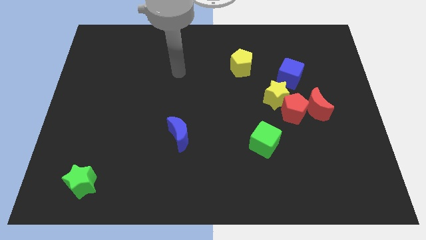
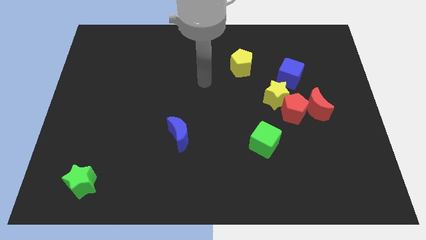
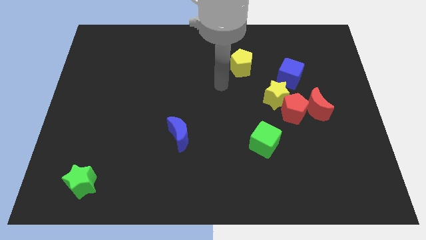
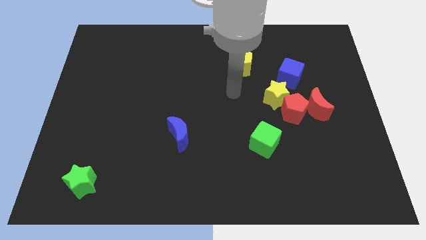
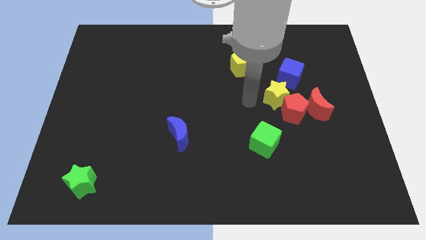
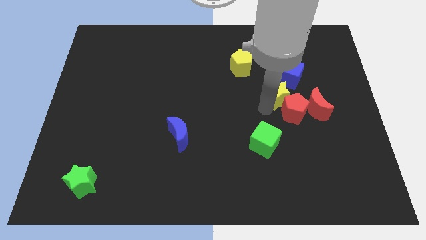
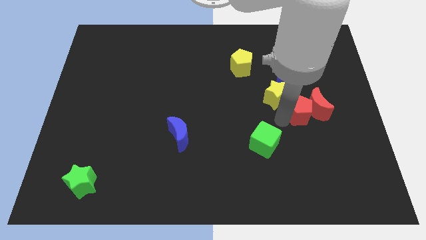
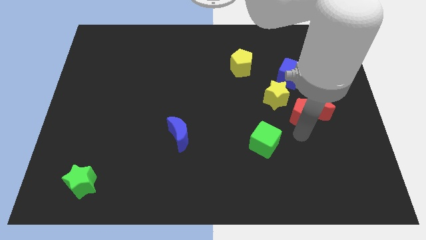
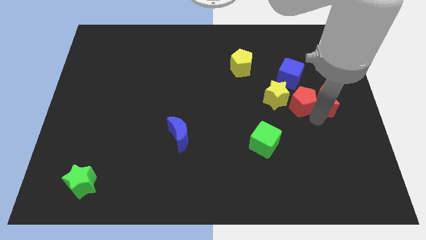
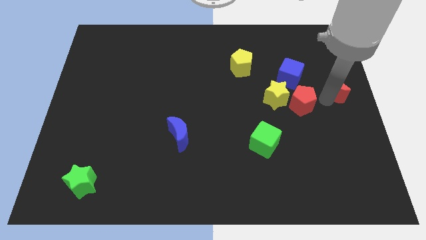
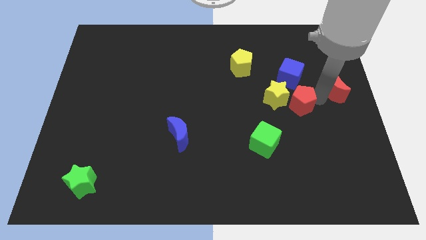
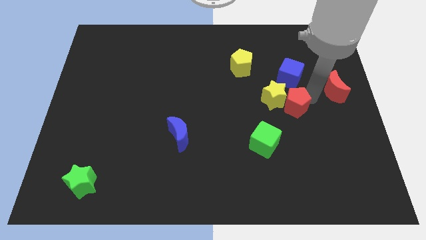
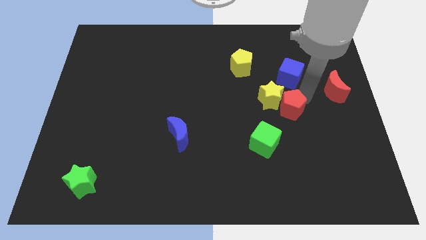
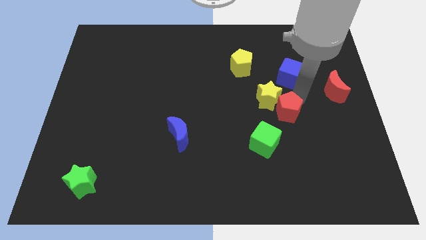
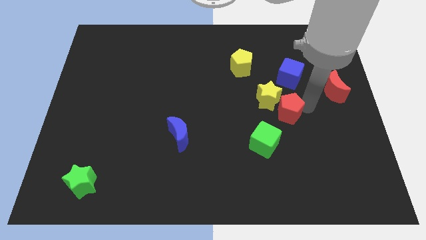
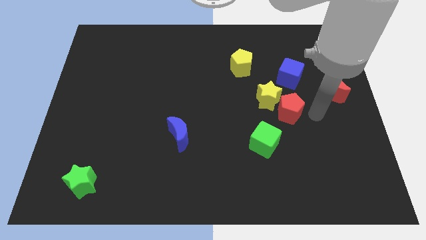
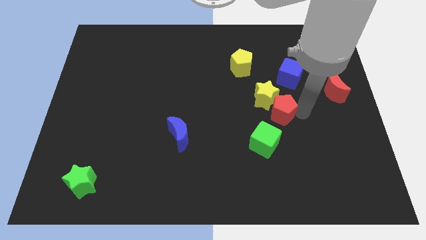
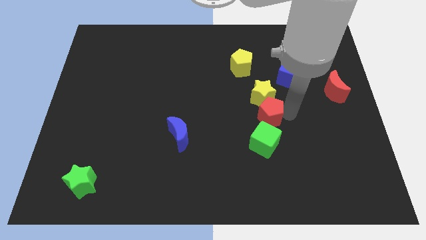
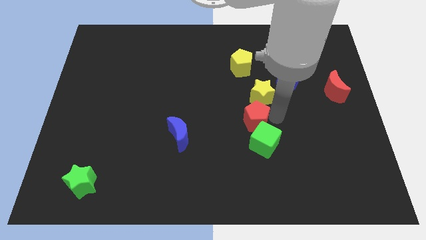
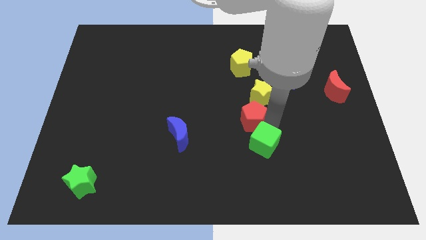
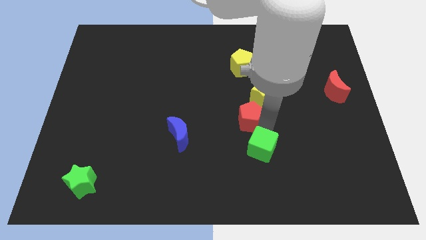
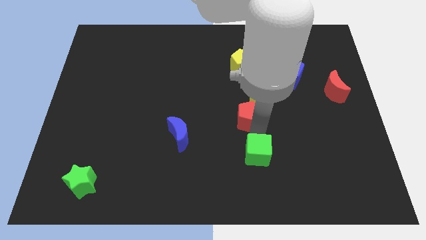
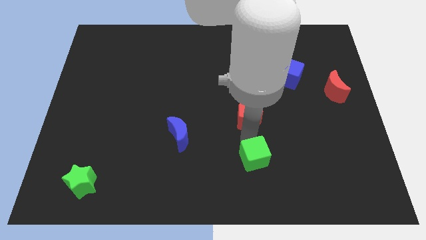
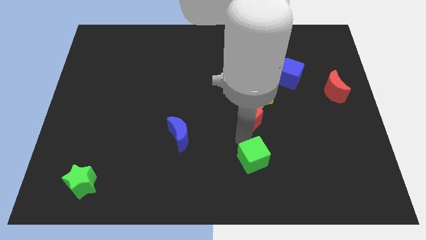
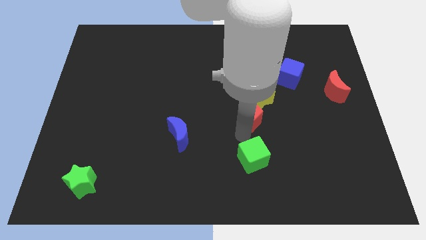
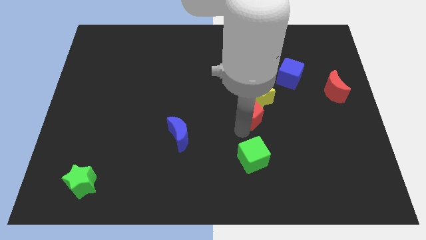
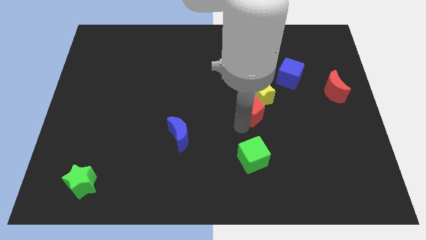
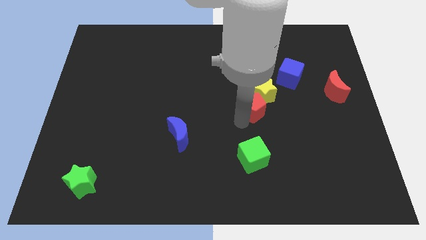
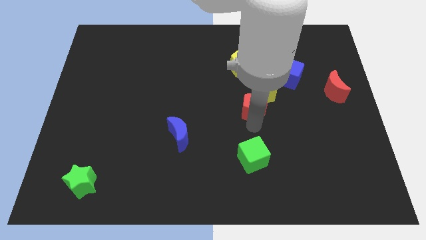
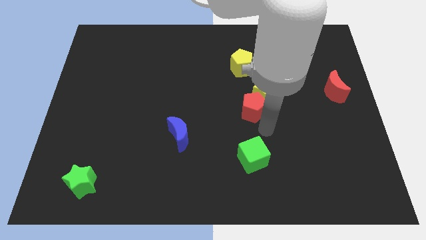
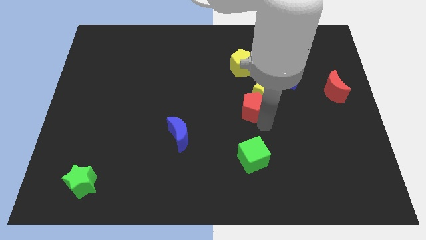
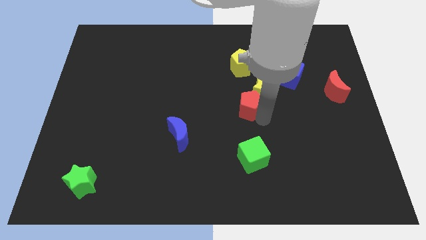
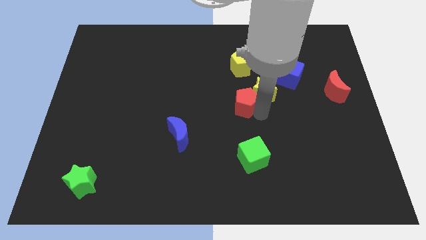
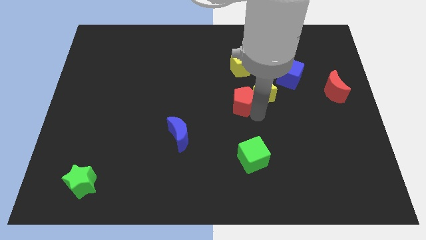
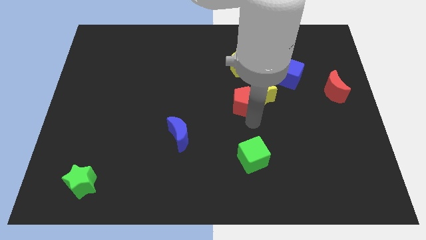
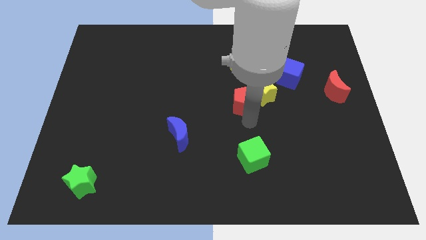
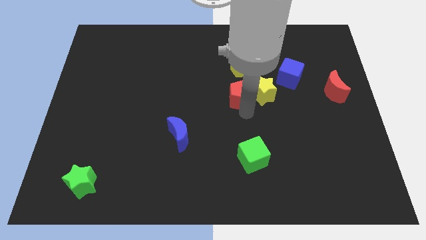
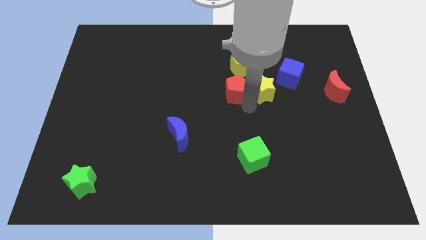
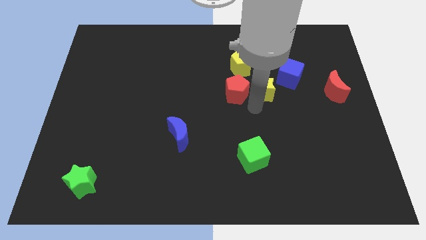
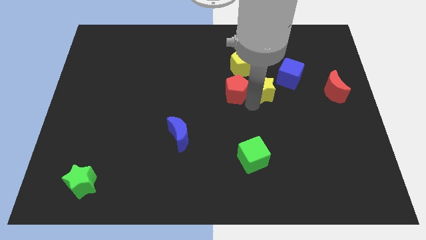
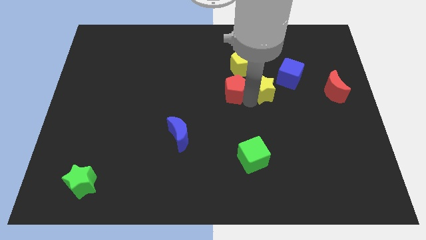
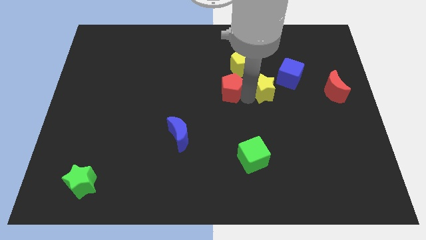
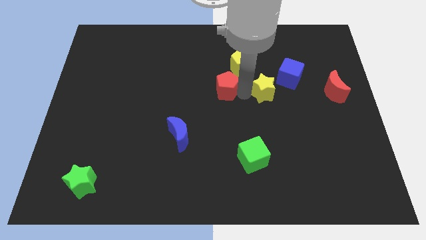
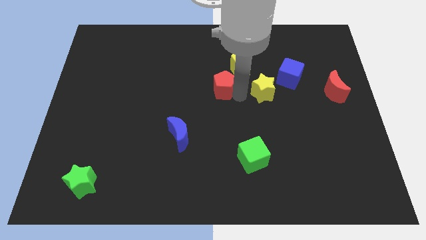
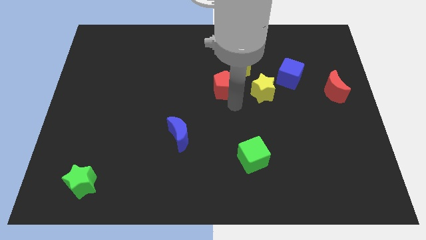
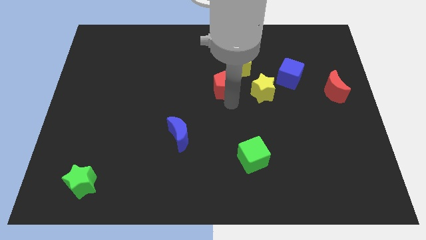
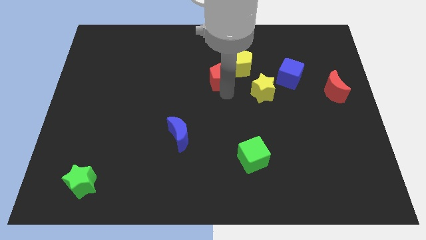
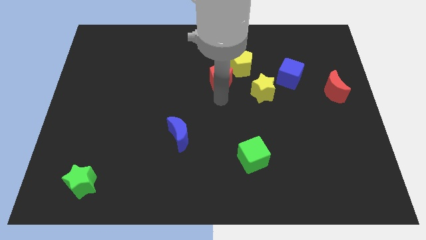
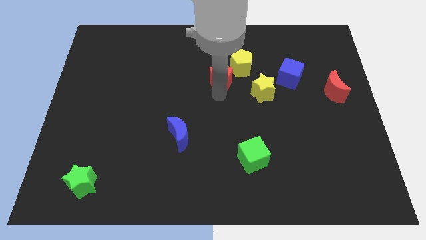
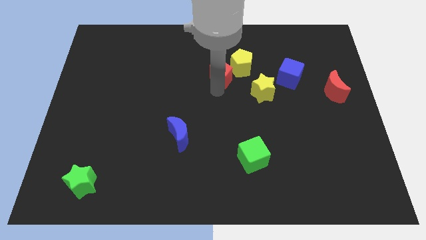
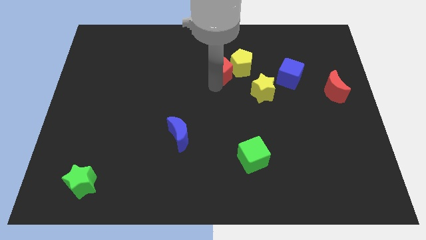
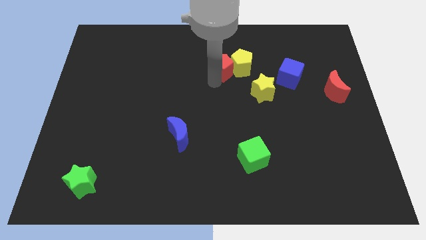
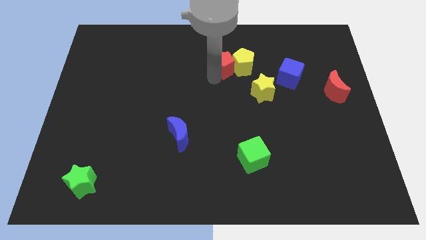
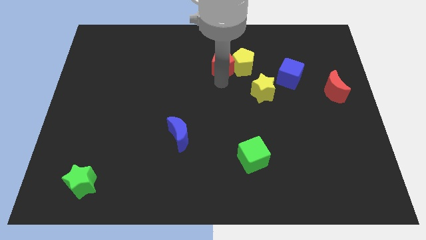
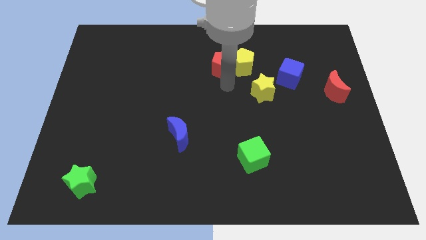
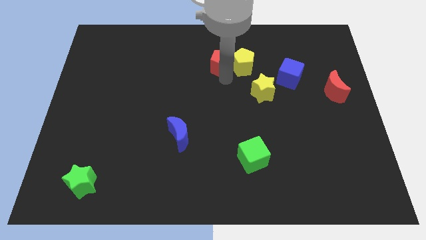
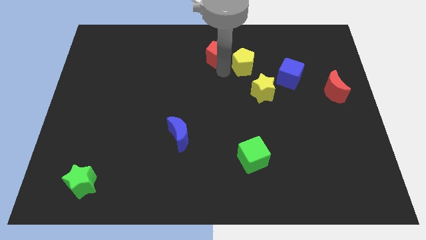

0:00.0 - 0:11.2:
put the red pentagon to the top
